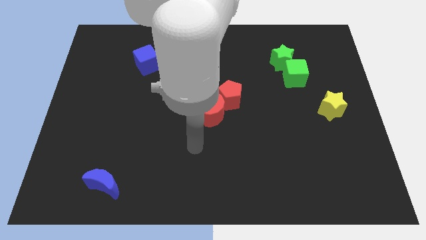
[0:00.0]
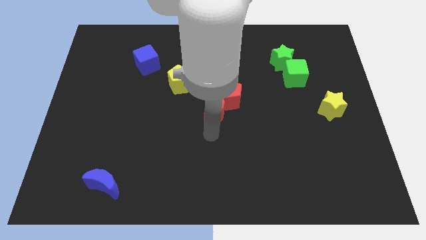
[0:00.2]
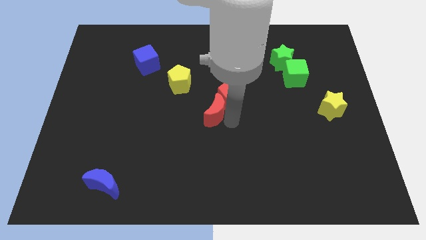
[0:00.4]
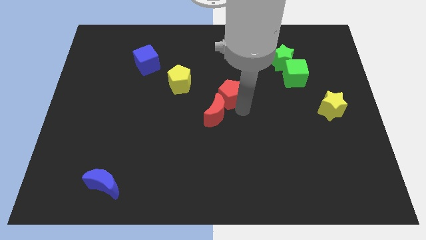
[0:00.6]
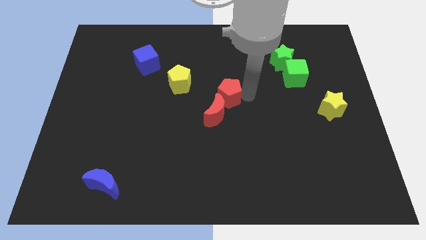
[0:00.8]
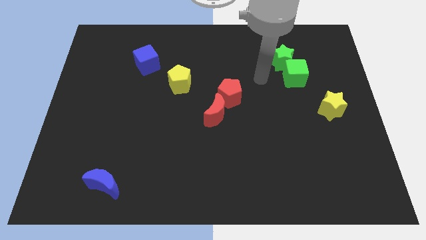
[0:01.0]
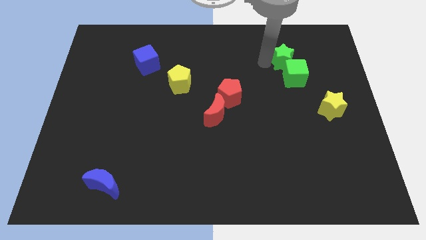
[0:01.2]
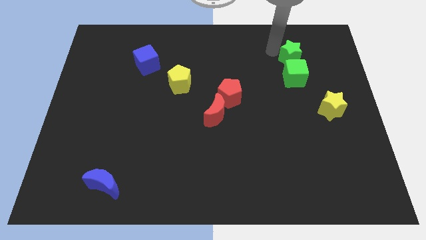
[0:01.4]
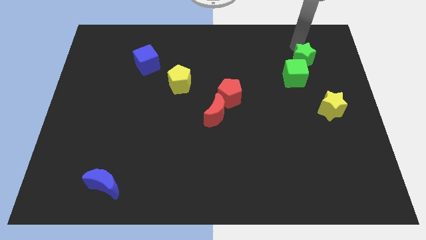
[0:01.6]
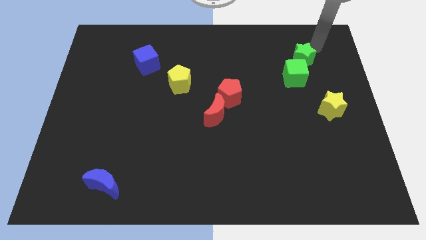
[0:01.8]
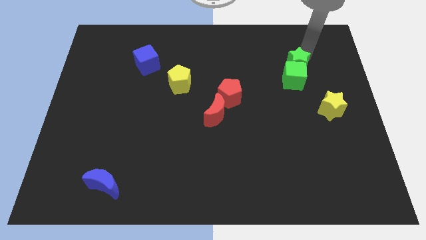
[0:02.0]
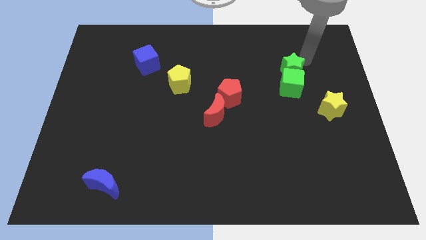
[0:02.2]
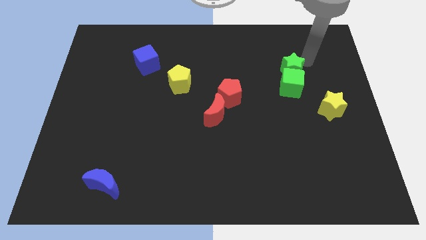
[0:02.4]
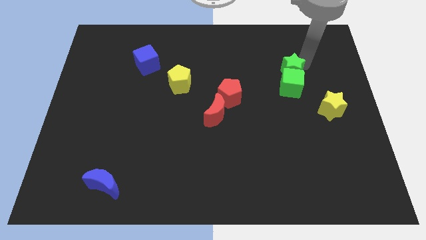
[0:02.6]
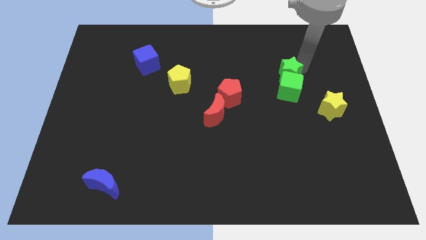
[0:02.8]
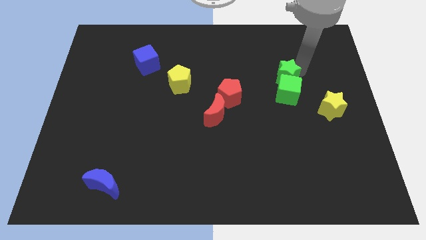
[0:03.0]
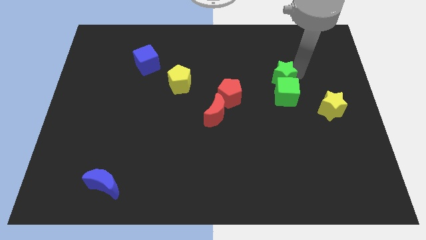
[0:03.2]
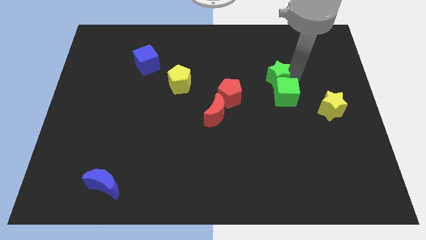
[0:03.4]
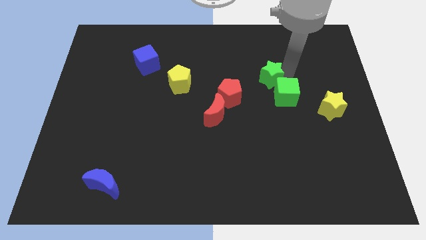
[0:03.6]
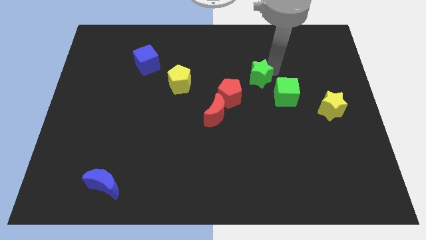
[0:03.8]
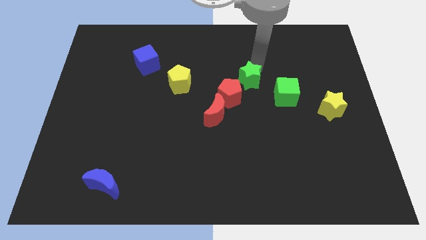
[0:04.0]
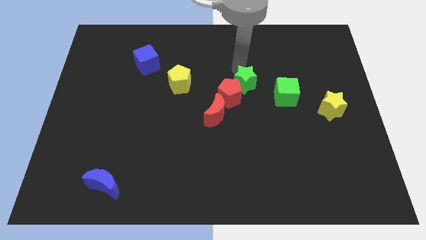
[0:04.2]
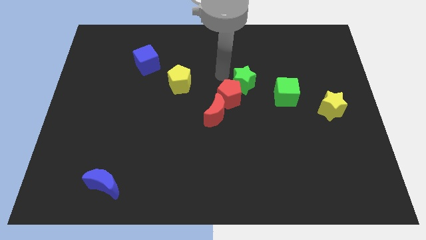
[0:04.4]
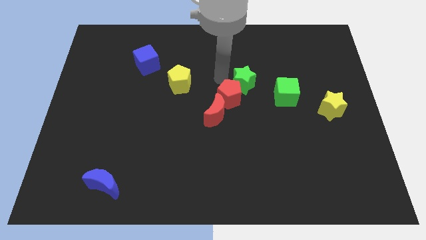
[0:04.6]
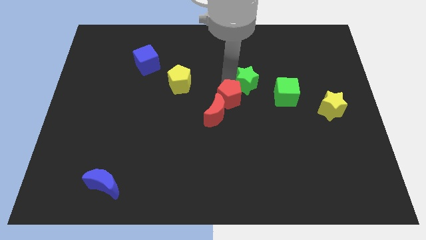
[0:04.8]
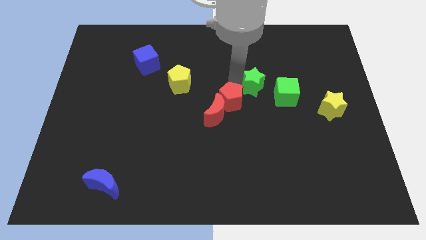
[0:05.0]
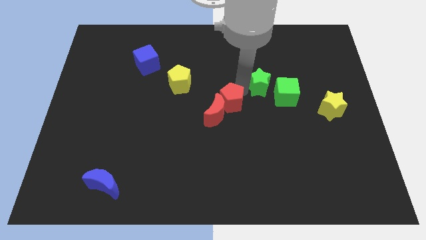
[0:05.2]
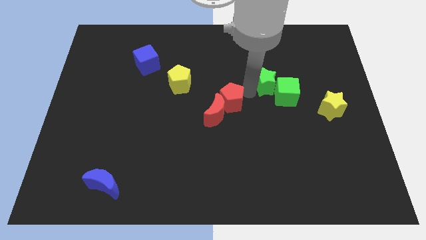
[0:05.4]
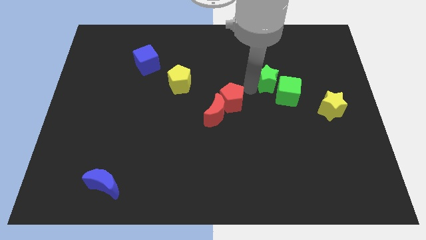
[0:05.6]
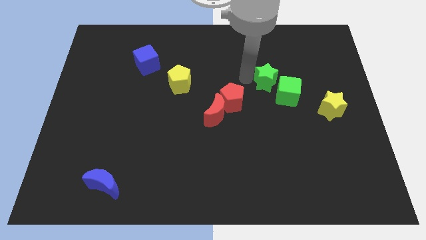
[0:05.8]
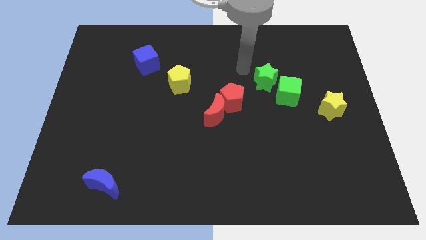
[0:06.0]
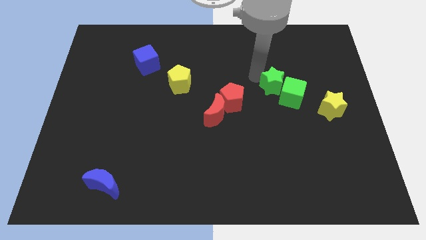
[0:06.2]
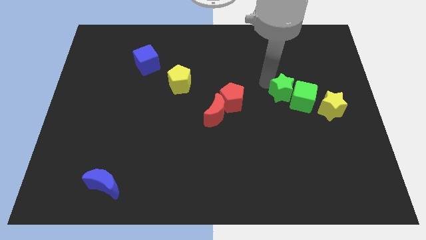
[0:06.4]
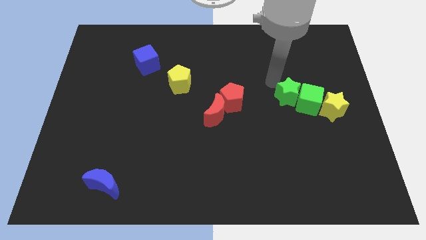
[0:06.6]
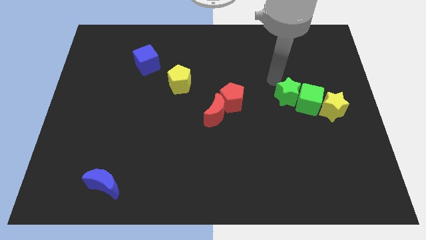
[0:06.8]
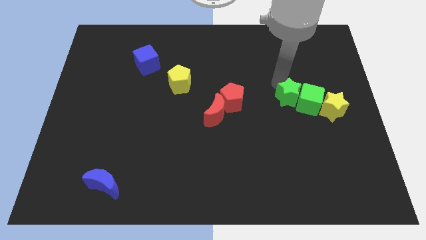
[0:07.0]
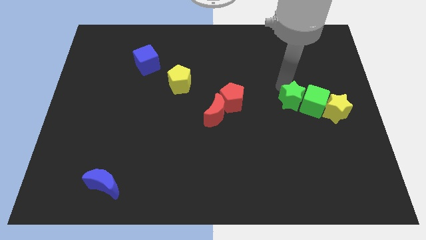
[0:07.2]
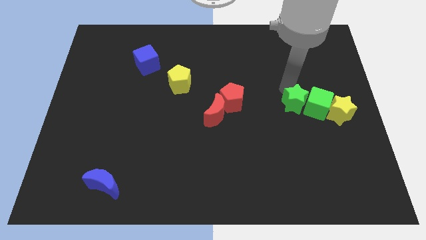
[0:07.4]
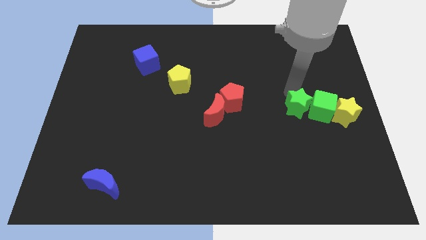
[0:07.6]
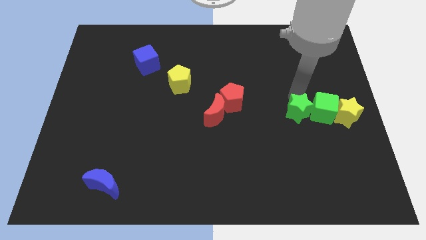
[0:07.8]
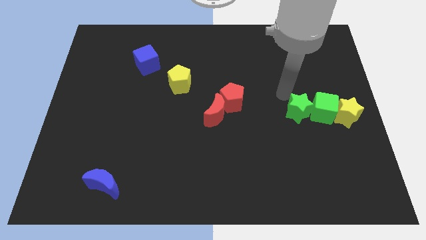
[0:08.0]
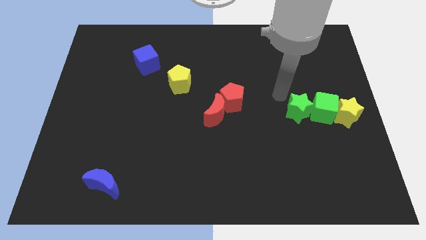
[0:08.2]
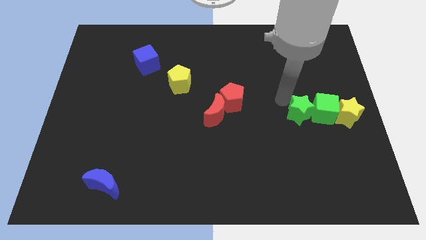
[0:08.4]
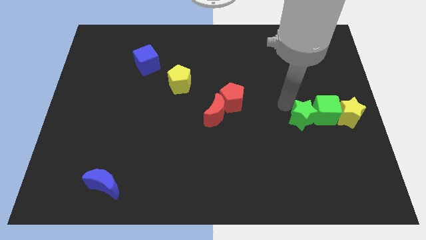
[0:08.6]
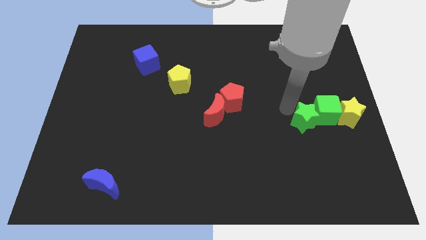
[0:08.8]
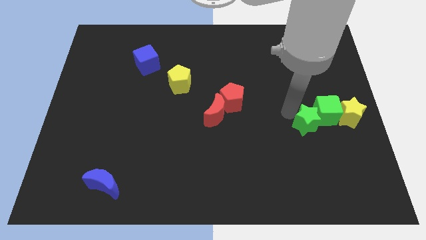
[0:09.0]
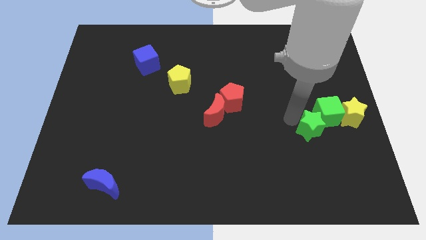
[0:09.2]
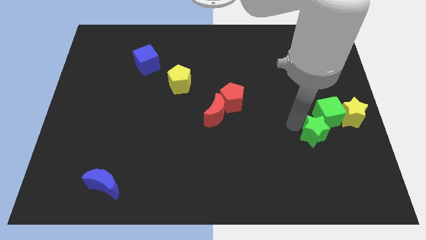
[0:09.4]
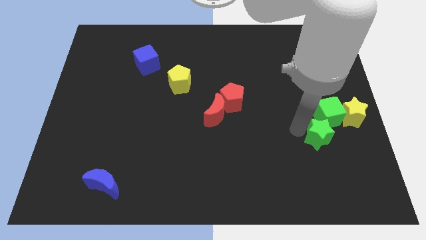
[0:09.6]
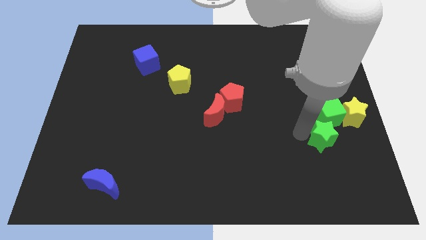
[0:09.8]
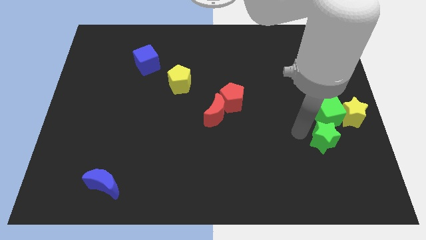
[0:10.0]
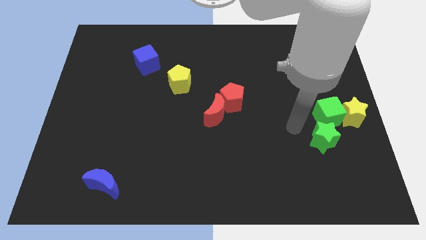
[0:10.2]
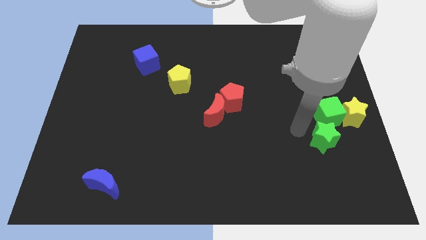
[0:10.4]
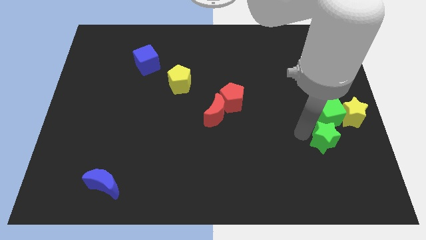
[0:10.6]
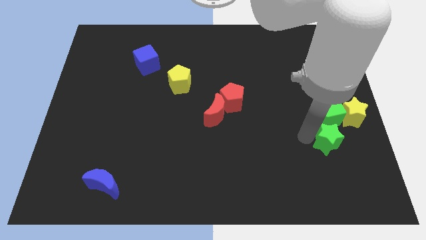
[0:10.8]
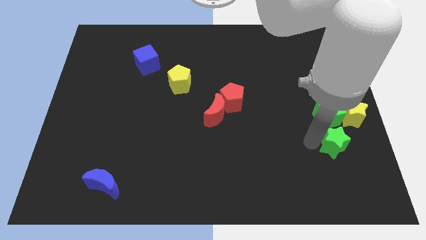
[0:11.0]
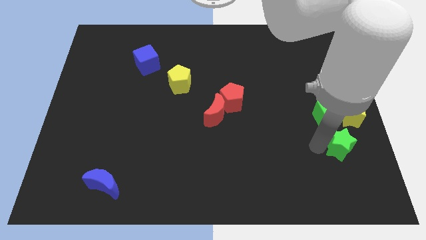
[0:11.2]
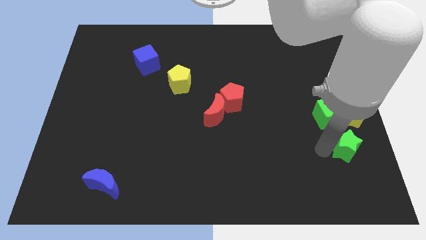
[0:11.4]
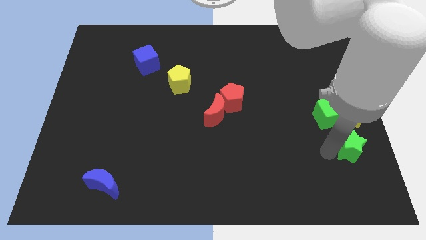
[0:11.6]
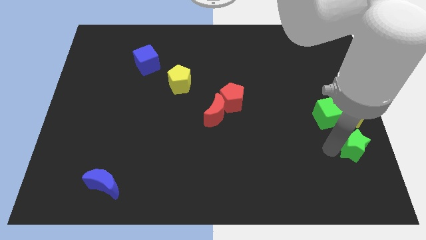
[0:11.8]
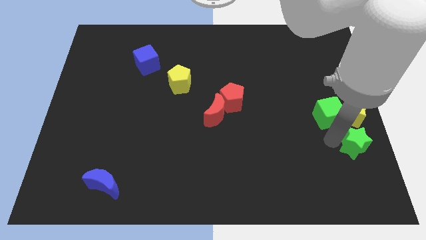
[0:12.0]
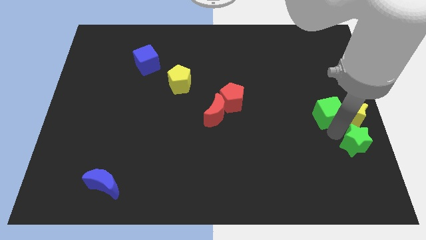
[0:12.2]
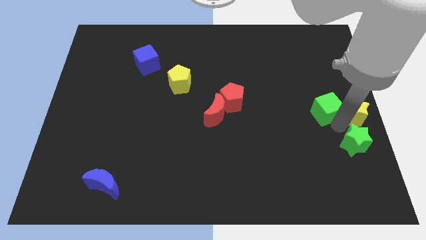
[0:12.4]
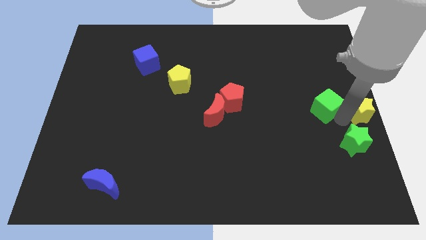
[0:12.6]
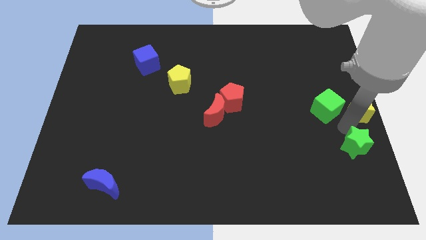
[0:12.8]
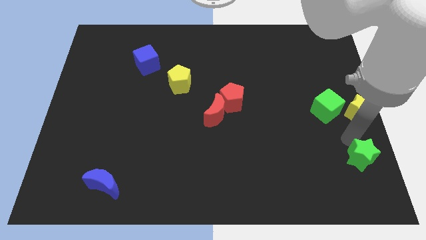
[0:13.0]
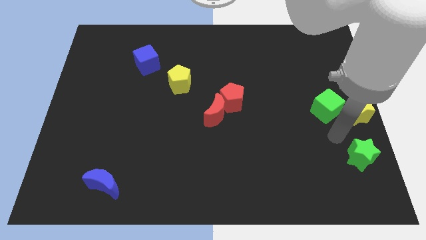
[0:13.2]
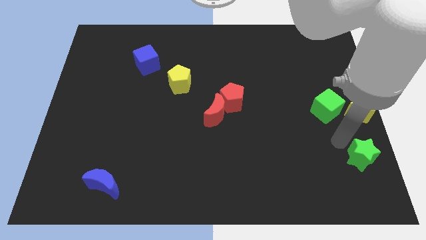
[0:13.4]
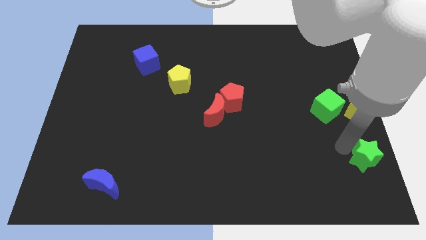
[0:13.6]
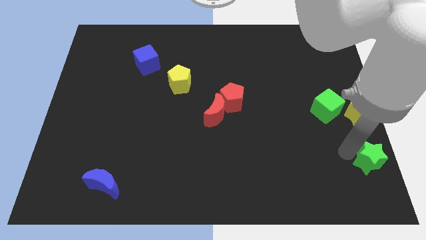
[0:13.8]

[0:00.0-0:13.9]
slide the green star to the bottom right corner

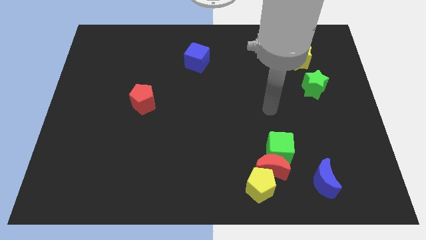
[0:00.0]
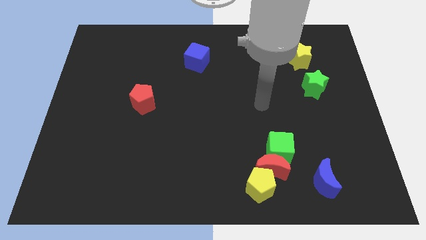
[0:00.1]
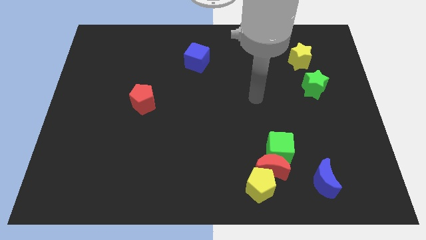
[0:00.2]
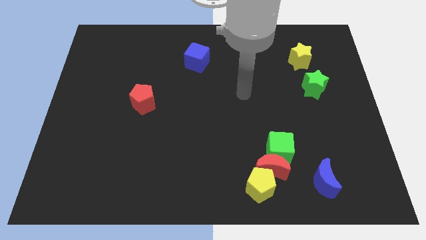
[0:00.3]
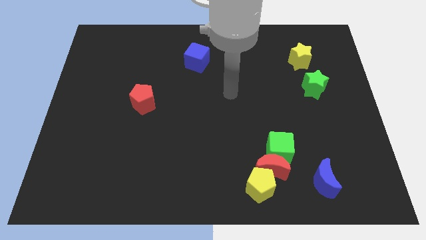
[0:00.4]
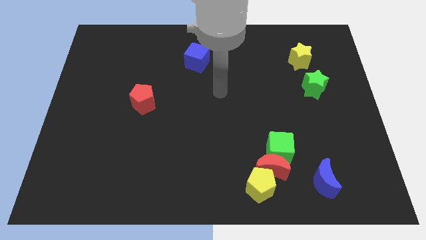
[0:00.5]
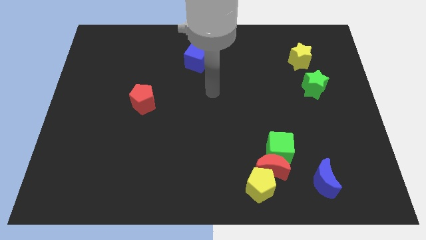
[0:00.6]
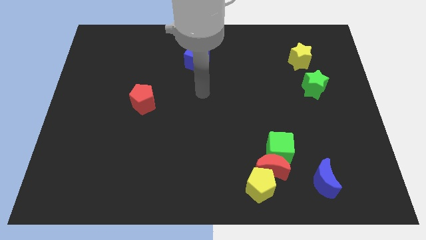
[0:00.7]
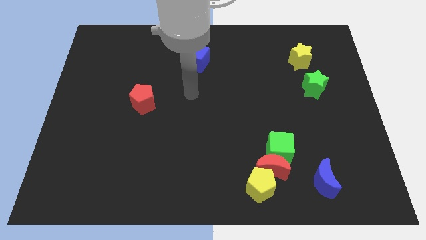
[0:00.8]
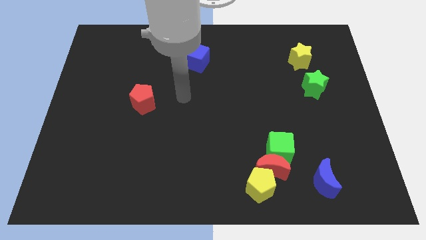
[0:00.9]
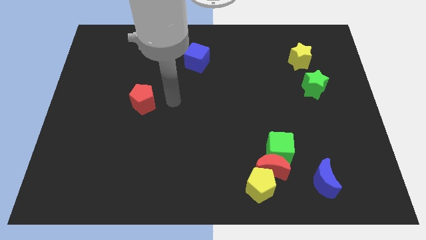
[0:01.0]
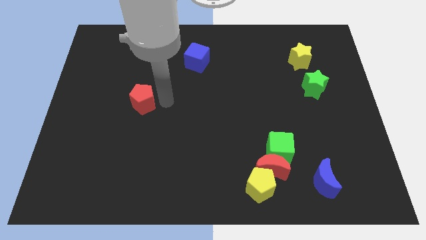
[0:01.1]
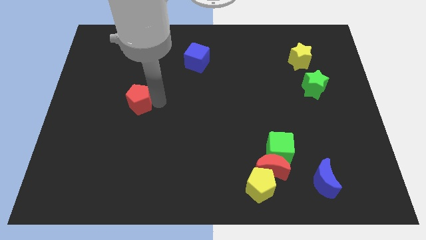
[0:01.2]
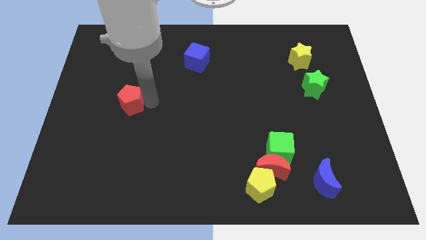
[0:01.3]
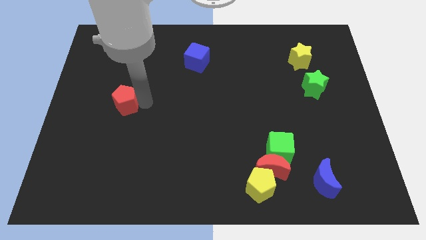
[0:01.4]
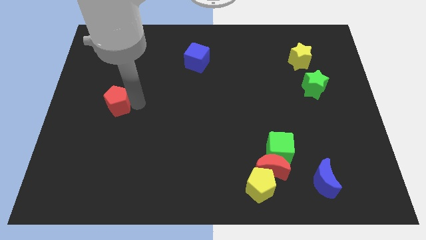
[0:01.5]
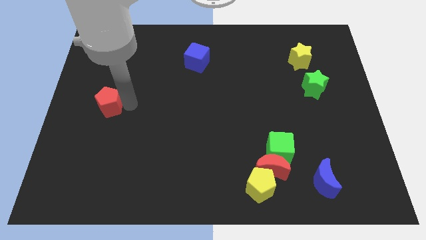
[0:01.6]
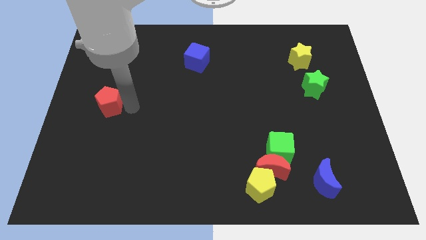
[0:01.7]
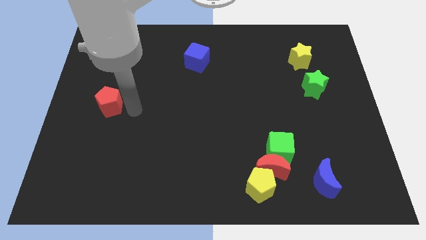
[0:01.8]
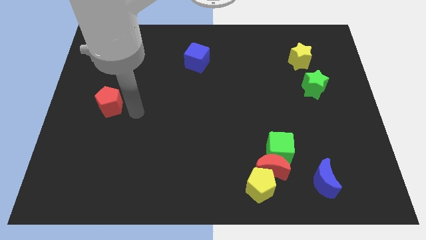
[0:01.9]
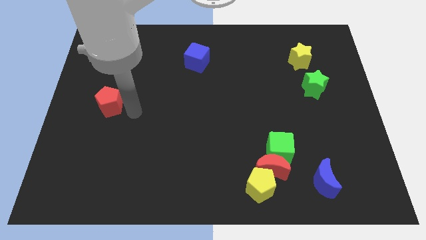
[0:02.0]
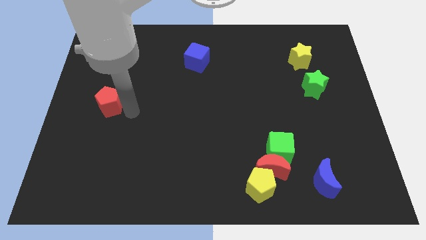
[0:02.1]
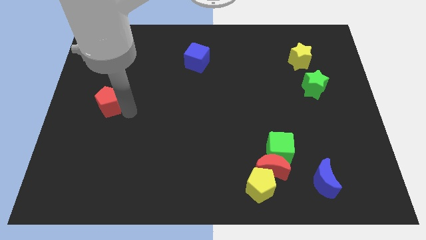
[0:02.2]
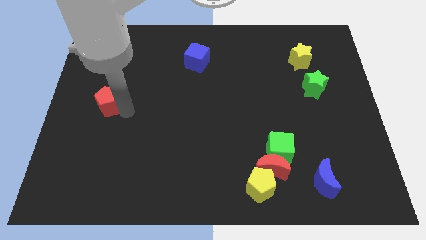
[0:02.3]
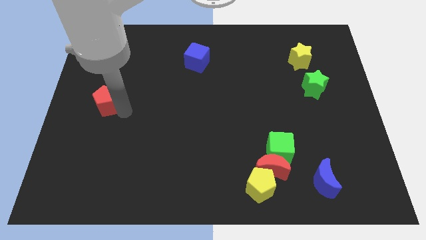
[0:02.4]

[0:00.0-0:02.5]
put the red pentagon to the center left
